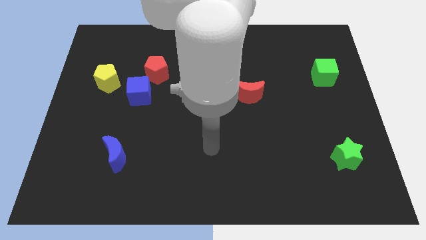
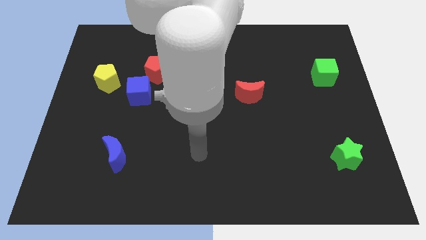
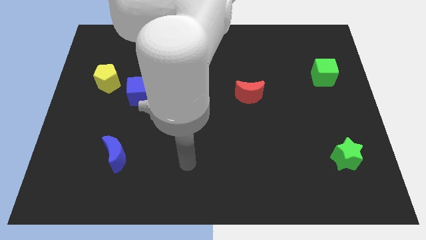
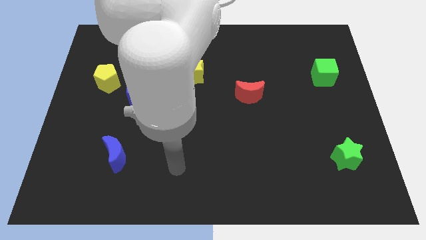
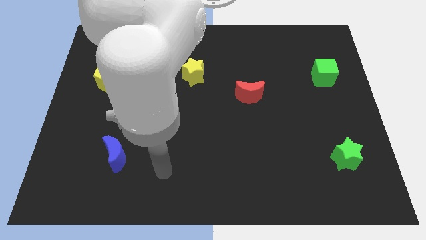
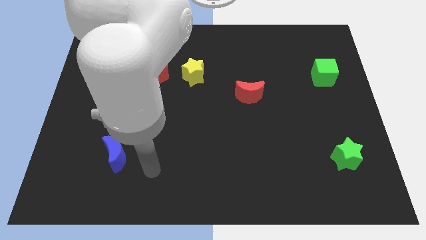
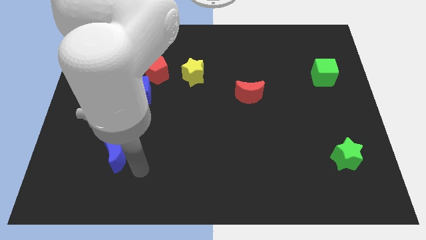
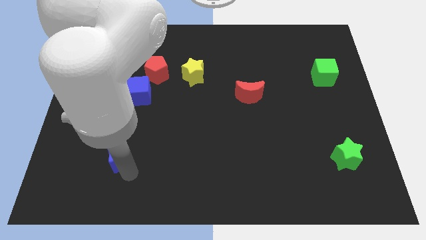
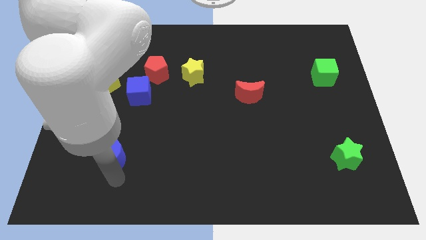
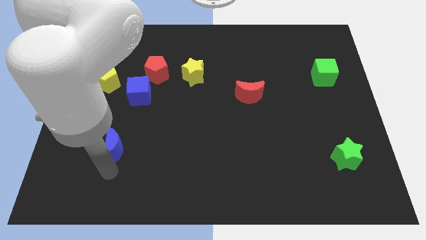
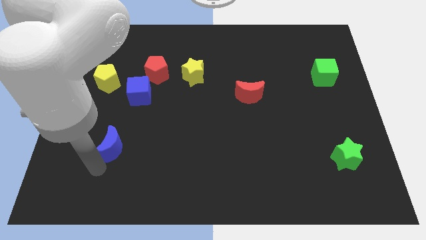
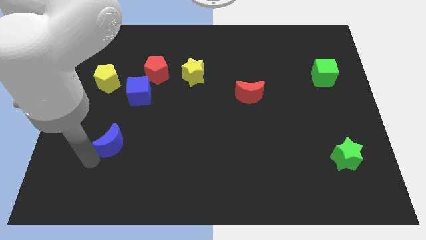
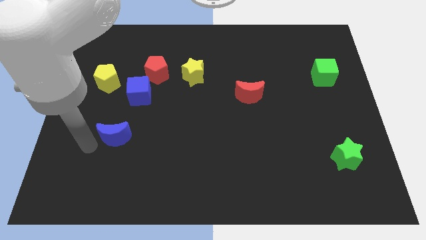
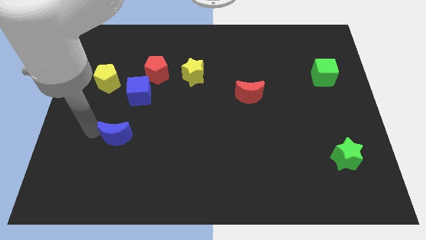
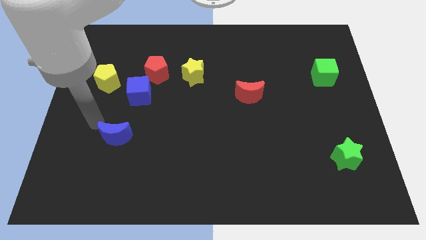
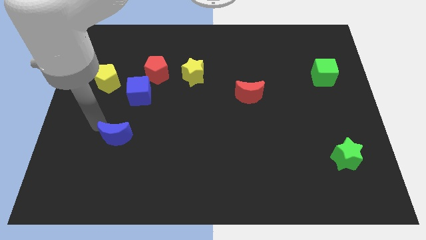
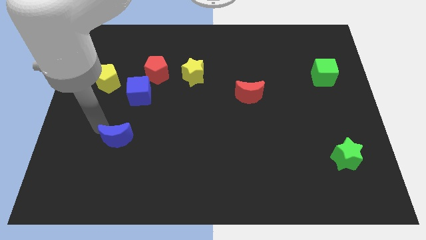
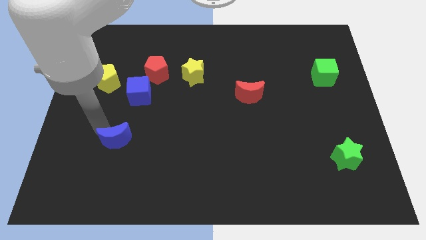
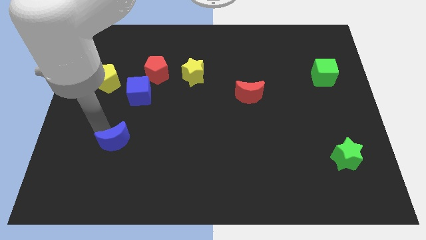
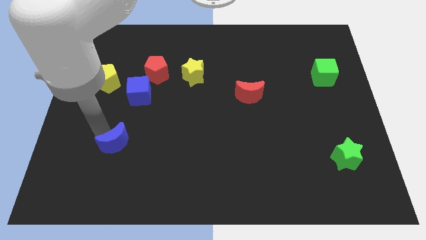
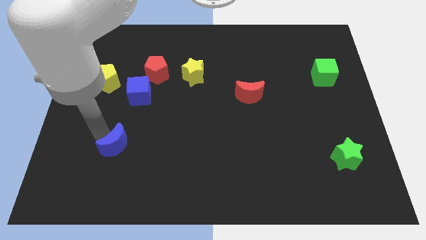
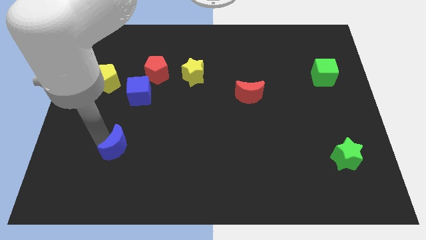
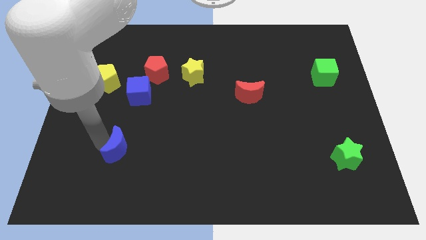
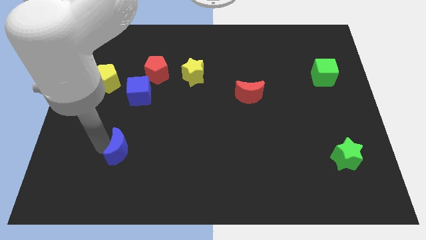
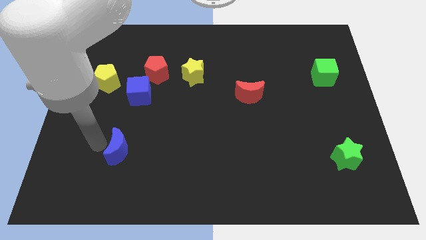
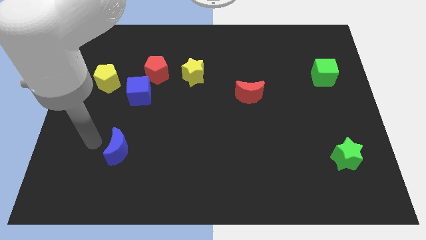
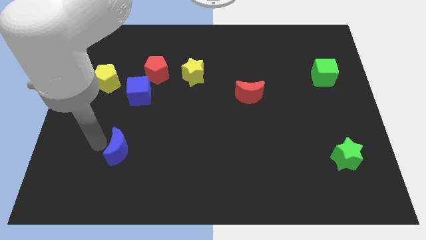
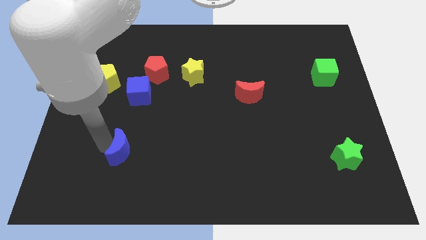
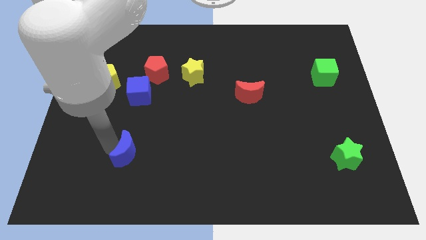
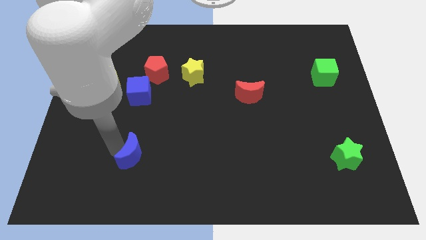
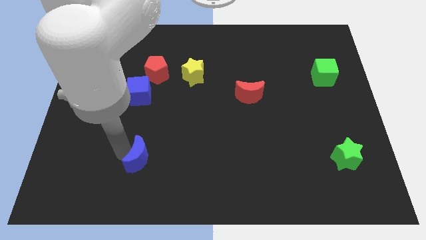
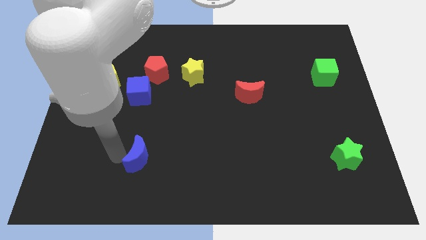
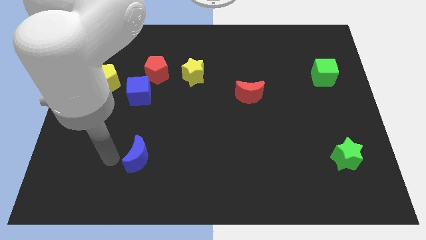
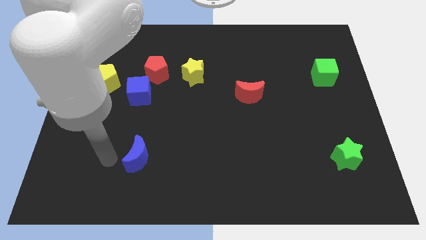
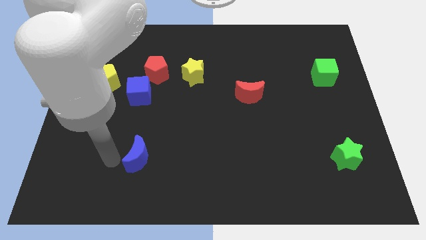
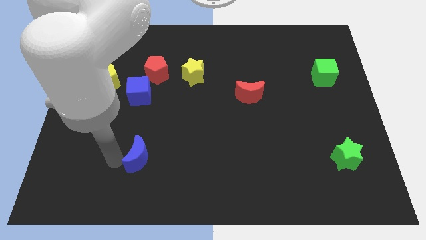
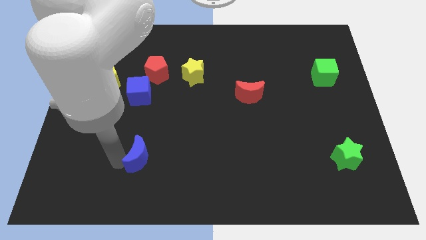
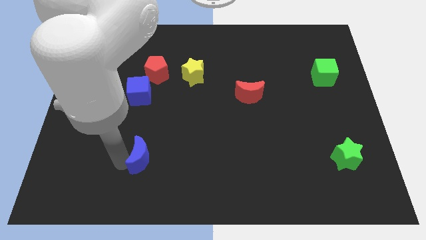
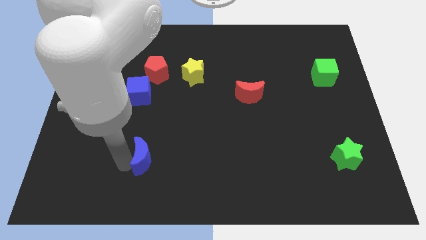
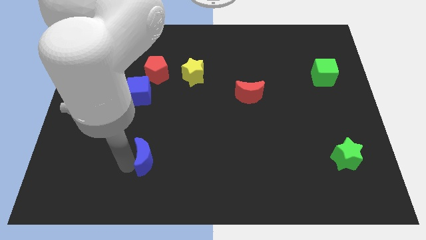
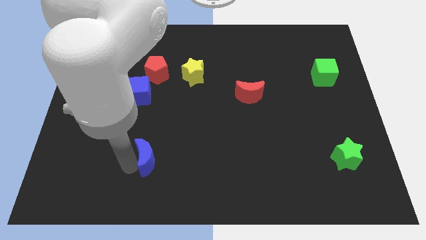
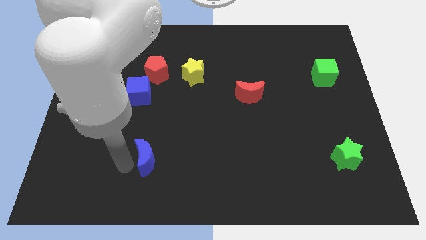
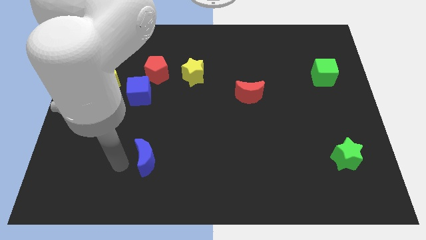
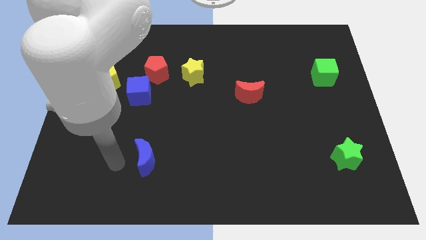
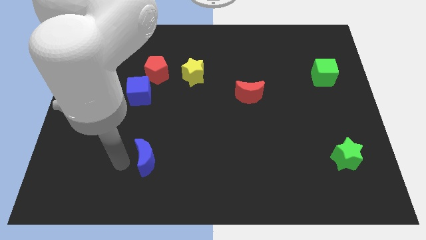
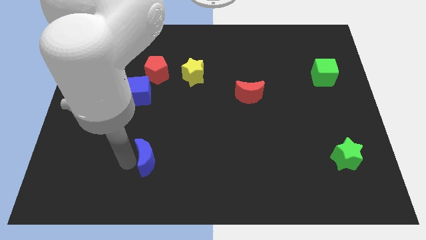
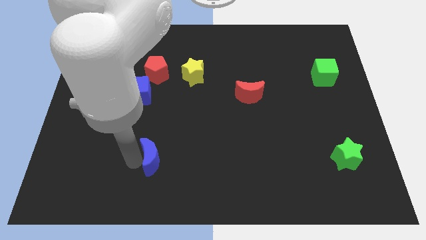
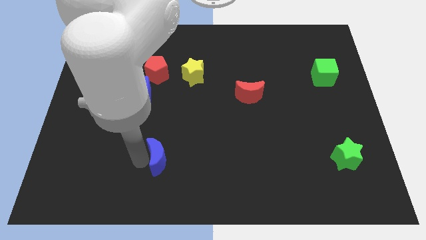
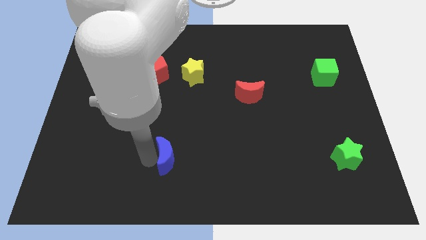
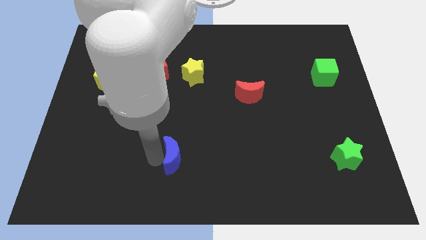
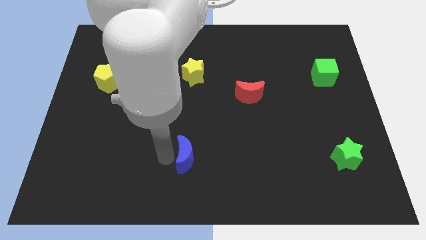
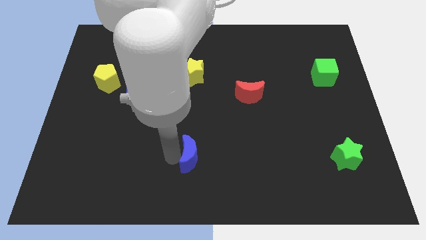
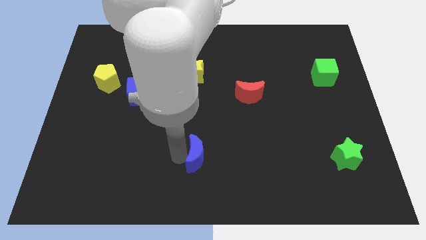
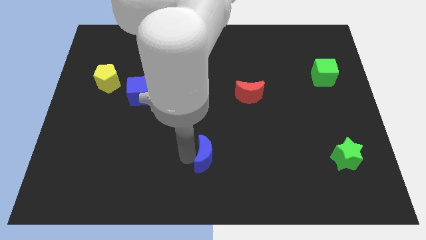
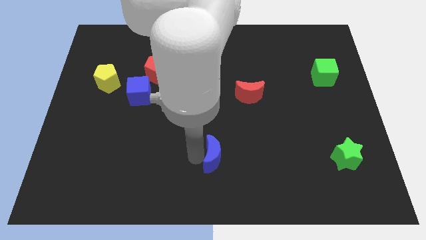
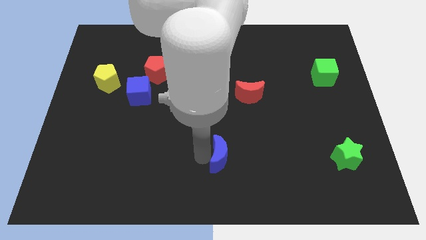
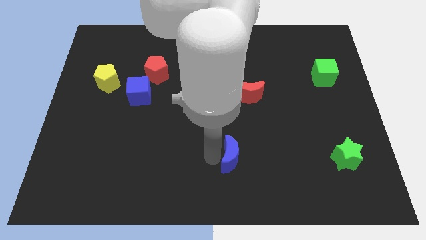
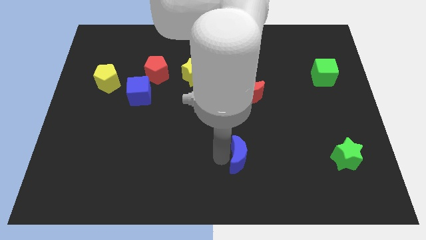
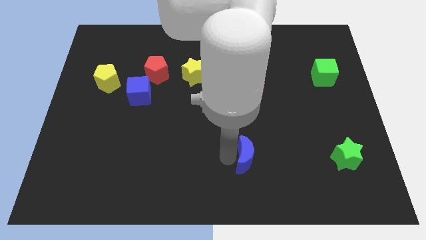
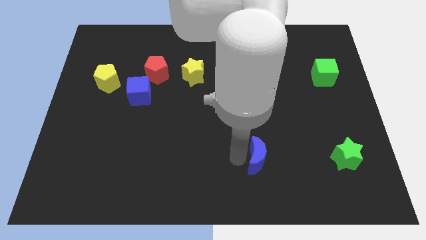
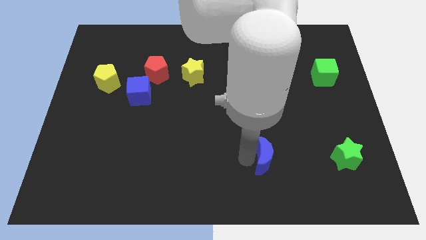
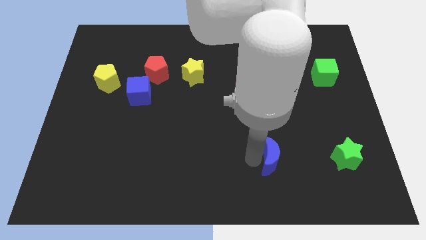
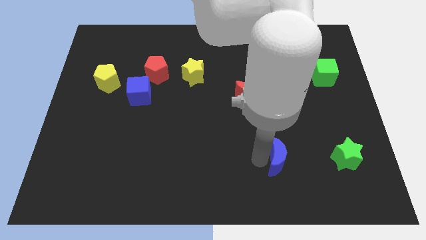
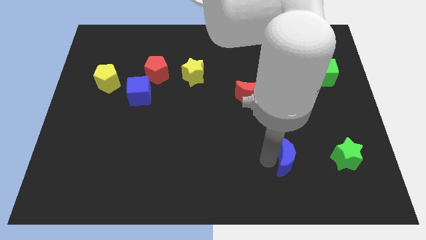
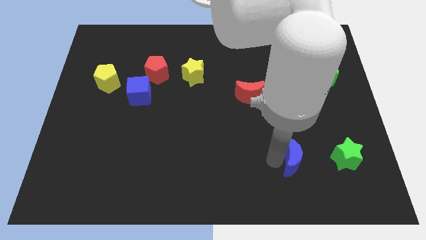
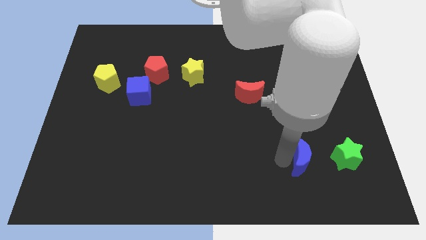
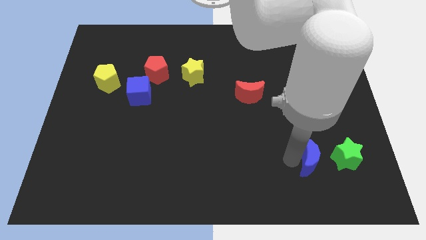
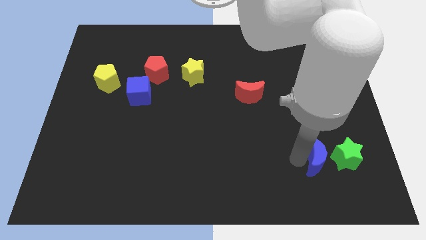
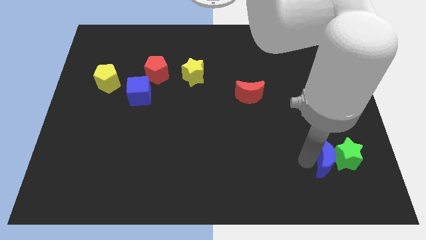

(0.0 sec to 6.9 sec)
push the blue moon towards the green star
